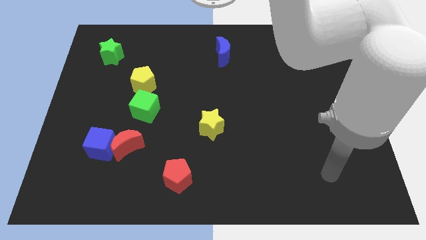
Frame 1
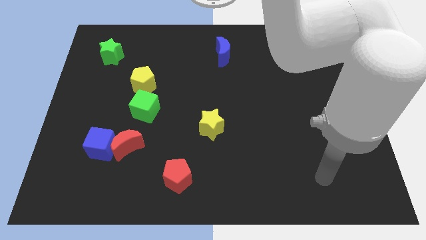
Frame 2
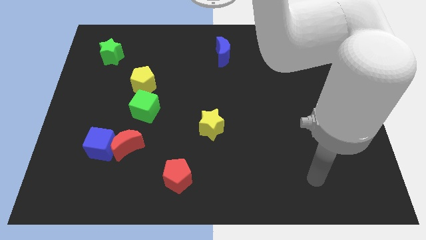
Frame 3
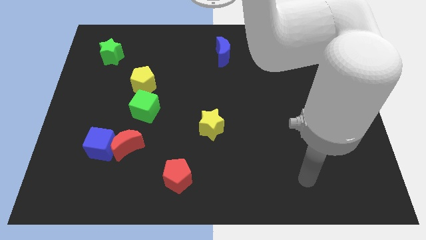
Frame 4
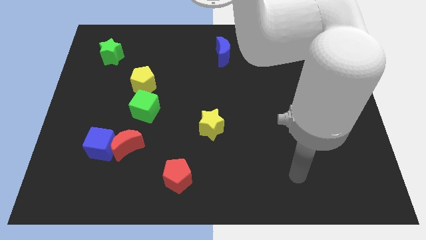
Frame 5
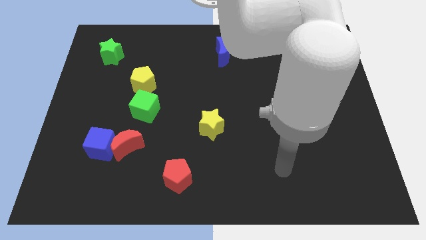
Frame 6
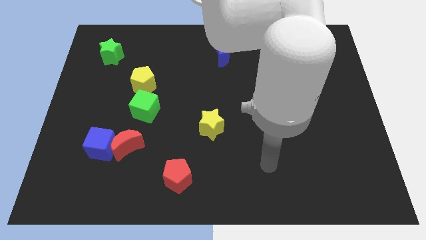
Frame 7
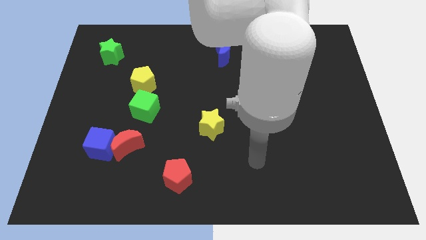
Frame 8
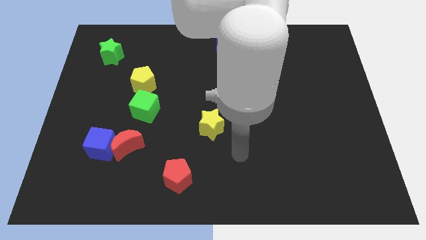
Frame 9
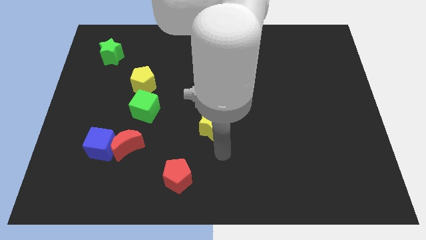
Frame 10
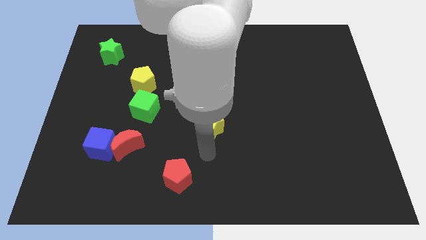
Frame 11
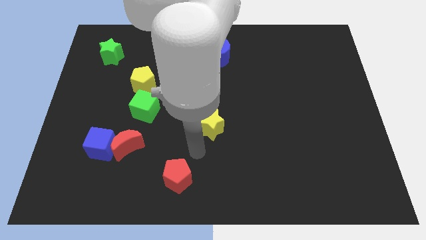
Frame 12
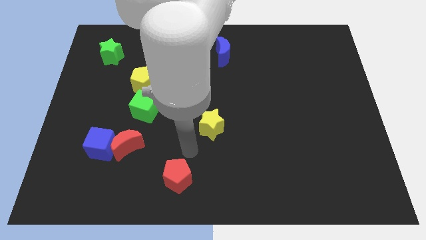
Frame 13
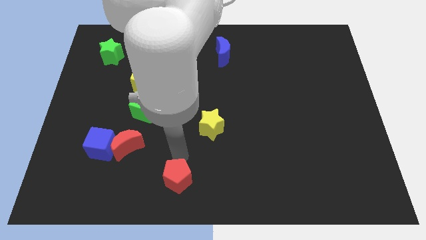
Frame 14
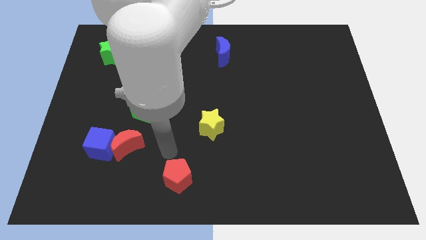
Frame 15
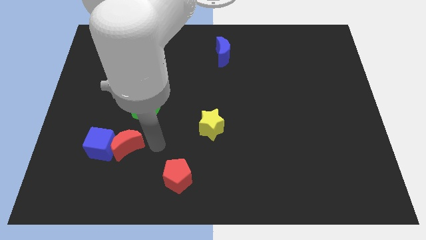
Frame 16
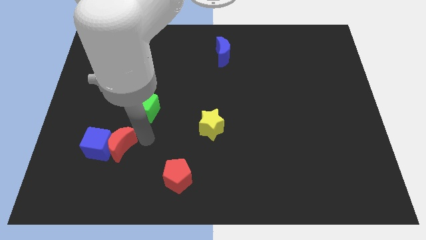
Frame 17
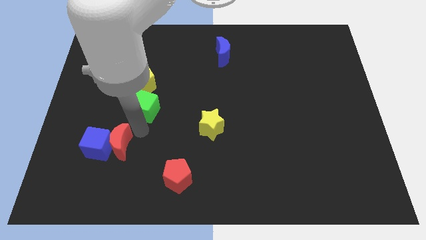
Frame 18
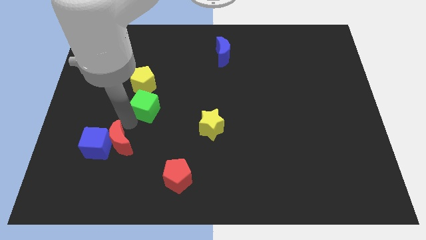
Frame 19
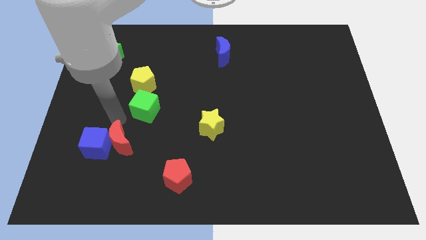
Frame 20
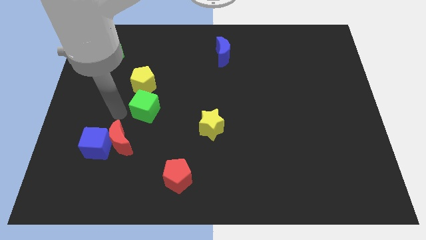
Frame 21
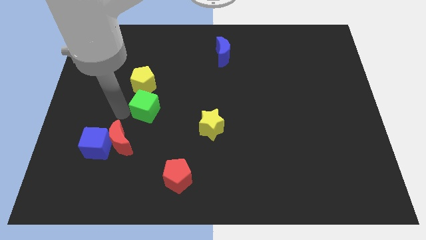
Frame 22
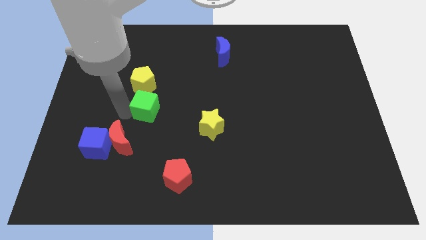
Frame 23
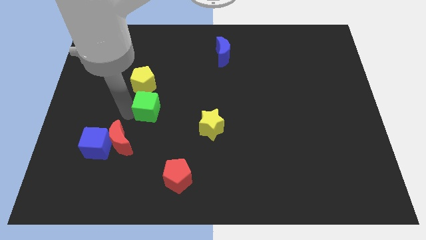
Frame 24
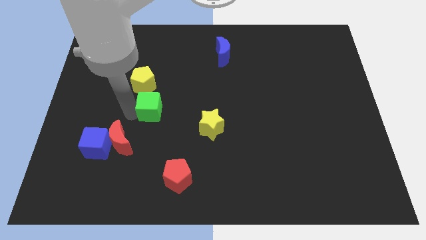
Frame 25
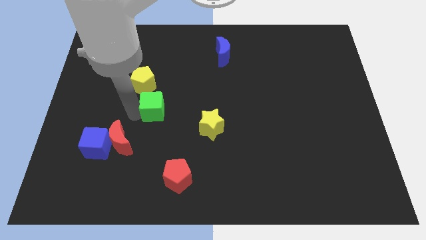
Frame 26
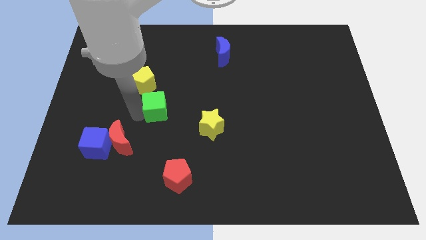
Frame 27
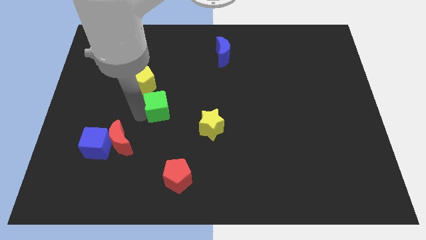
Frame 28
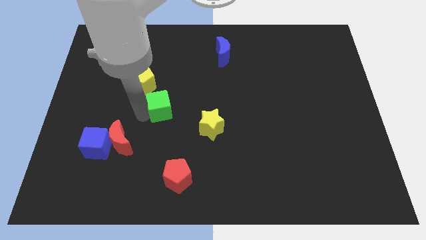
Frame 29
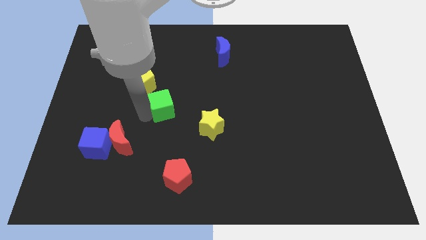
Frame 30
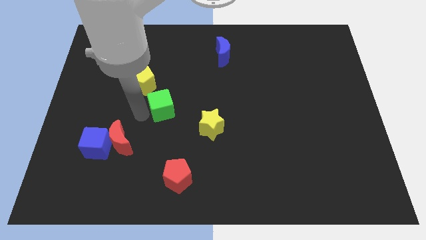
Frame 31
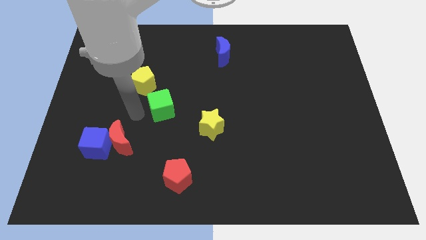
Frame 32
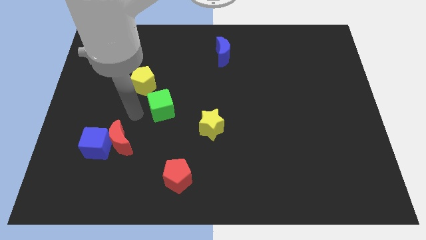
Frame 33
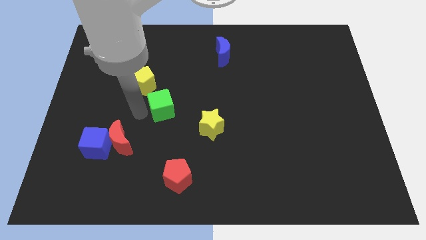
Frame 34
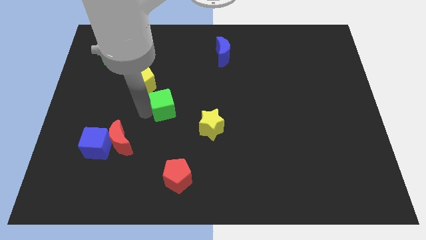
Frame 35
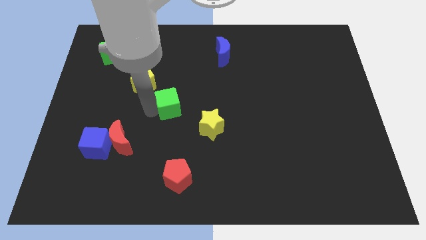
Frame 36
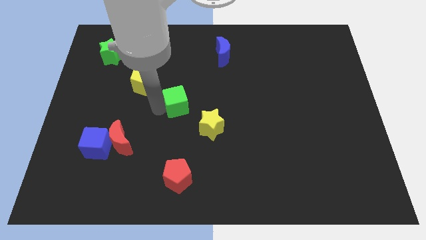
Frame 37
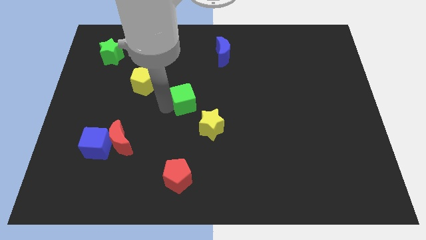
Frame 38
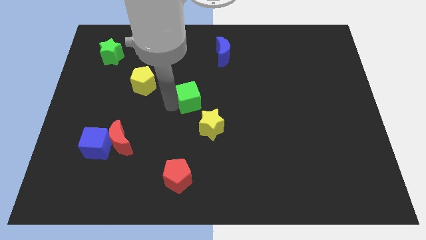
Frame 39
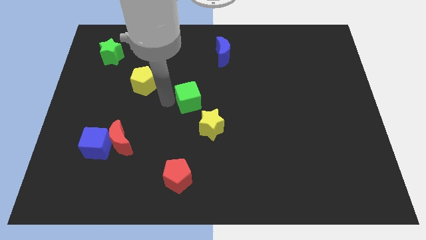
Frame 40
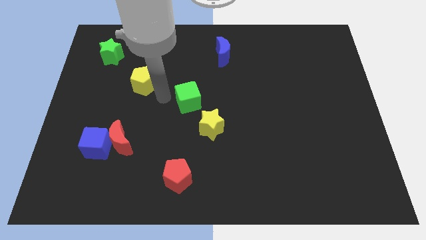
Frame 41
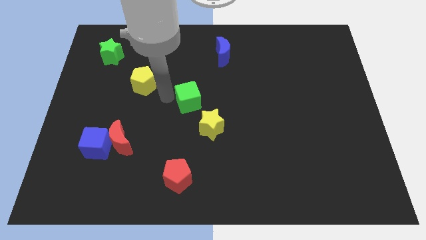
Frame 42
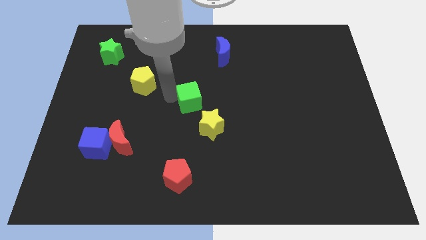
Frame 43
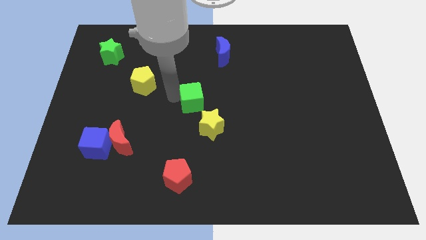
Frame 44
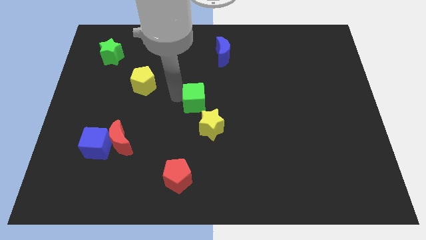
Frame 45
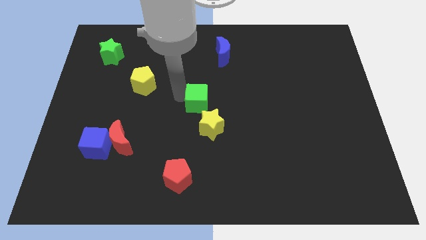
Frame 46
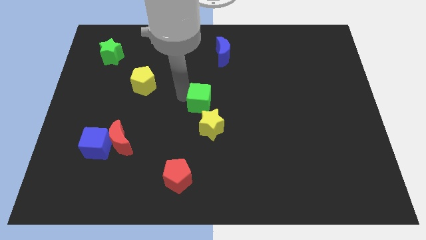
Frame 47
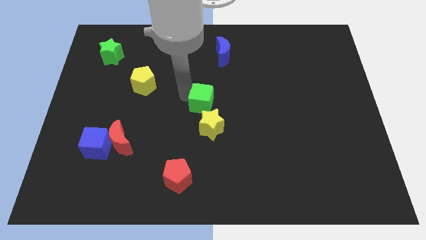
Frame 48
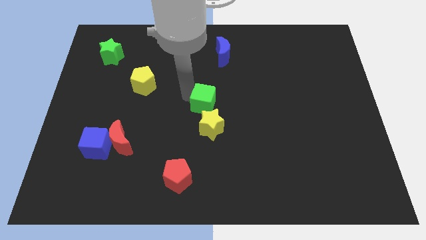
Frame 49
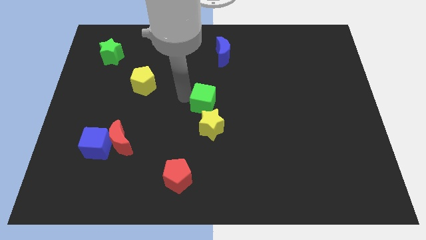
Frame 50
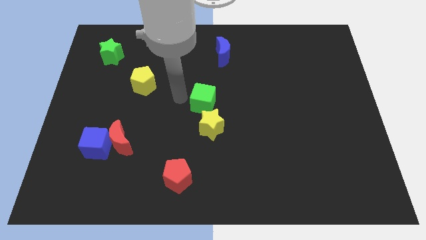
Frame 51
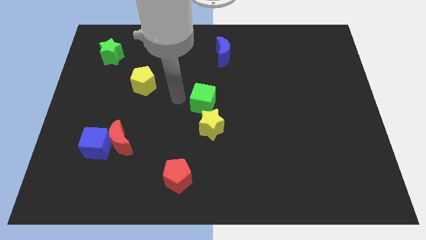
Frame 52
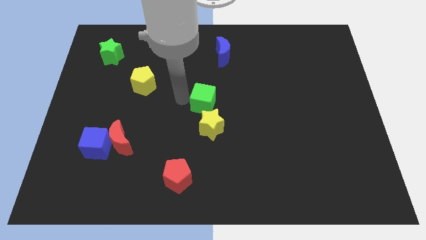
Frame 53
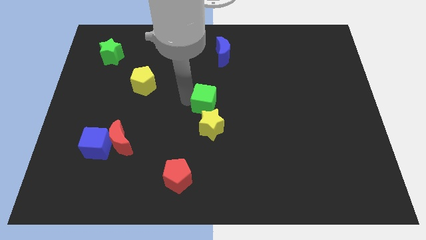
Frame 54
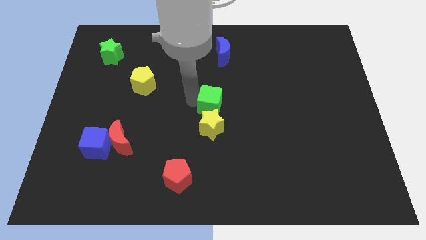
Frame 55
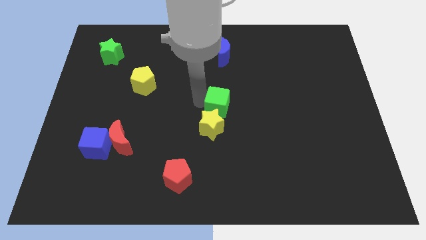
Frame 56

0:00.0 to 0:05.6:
move the green cube diagonally up and to the right of the yellow star
